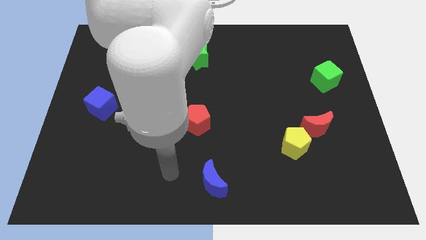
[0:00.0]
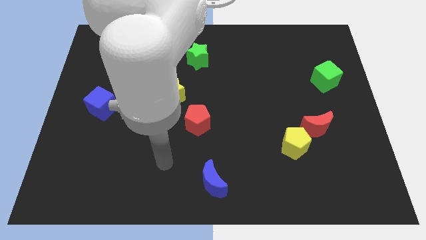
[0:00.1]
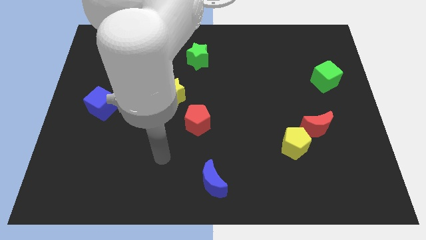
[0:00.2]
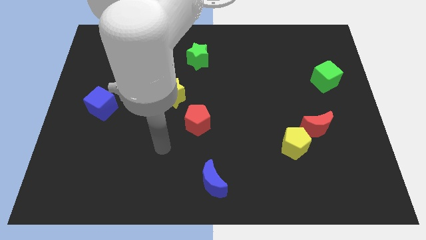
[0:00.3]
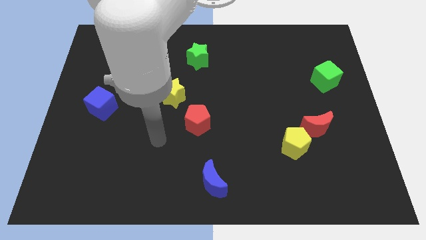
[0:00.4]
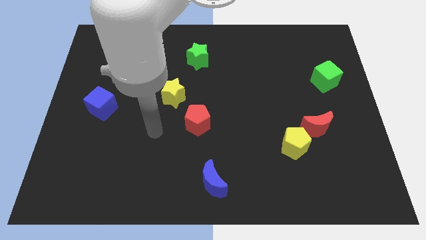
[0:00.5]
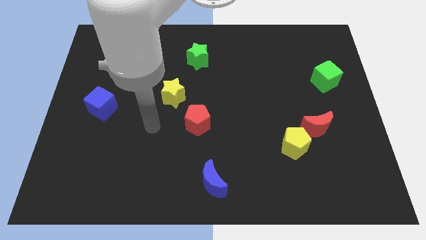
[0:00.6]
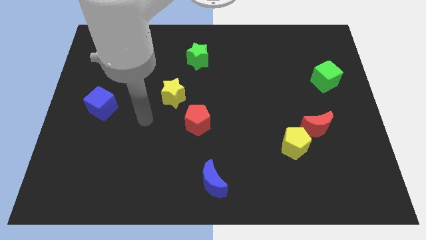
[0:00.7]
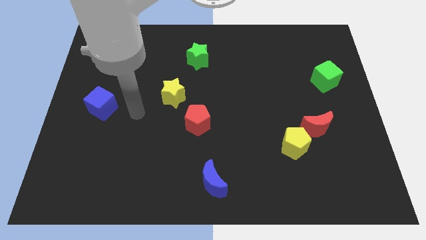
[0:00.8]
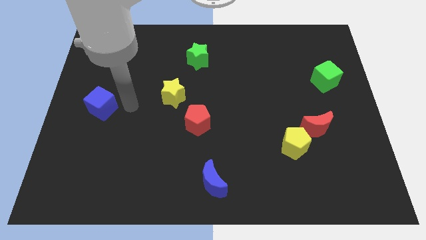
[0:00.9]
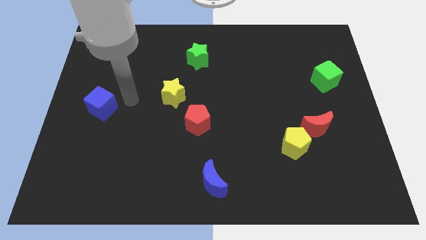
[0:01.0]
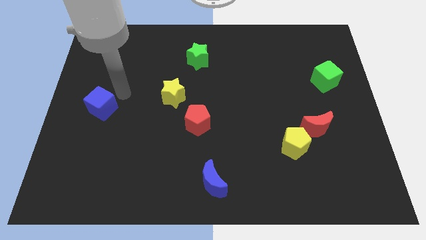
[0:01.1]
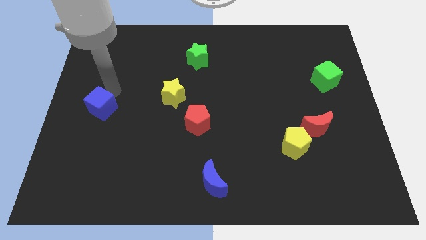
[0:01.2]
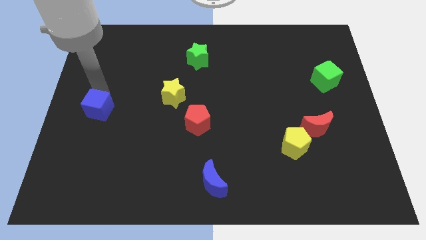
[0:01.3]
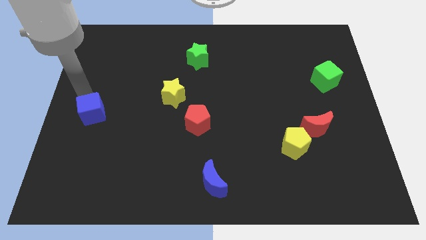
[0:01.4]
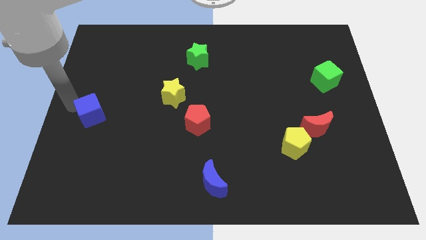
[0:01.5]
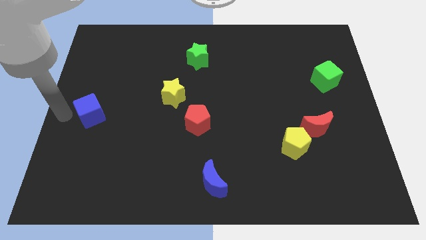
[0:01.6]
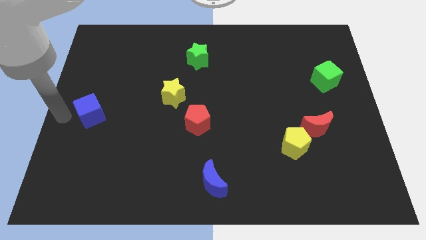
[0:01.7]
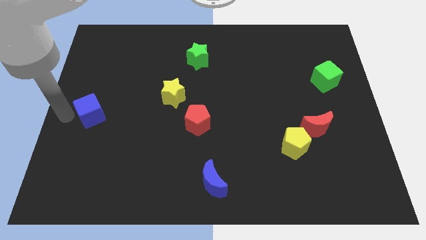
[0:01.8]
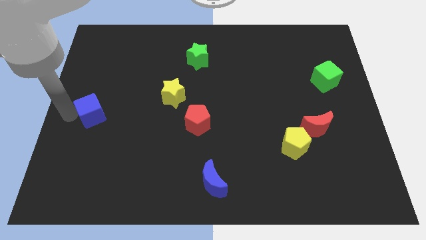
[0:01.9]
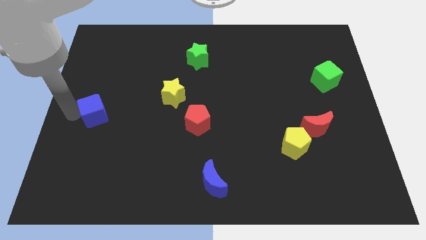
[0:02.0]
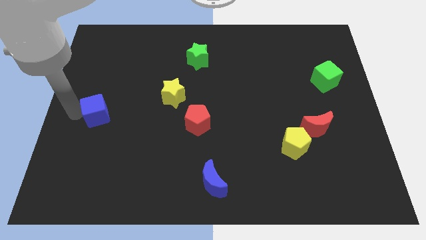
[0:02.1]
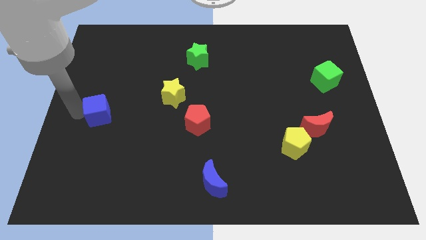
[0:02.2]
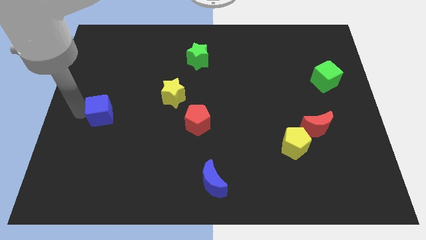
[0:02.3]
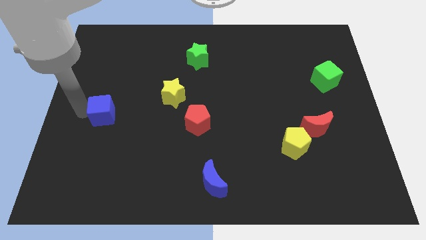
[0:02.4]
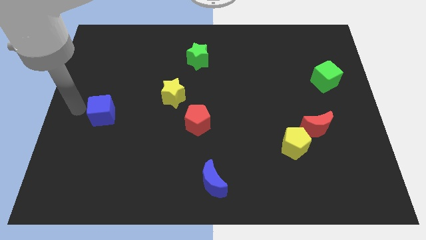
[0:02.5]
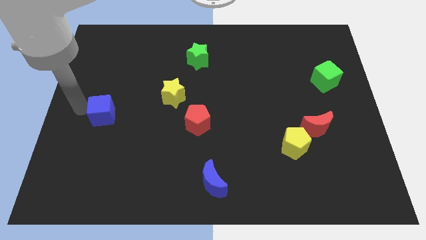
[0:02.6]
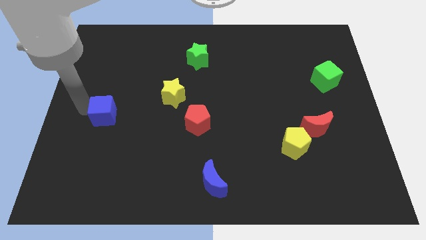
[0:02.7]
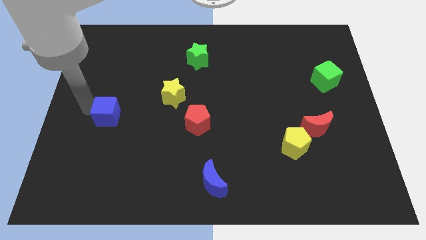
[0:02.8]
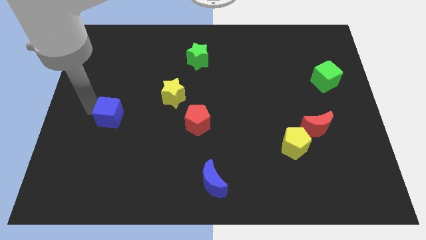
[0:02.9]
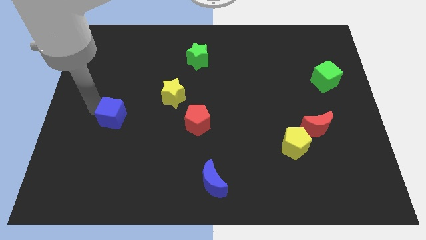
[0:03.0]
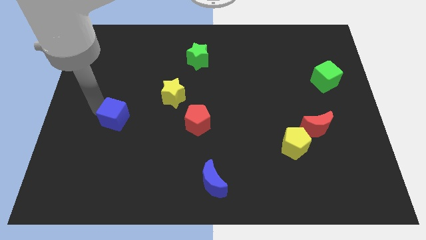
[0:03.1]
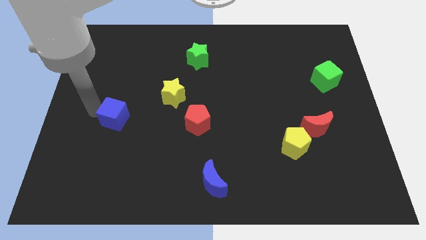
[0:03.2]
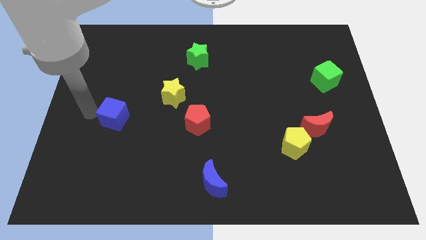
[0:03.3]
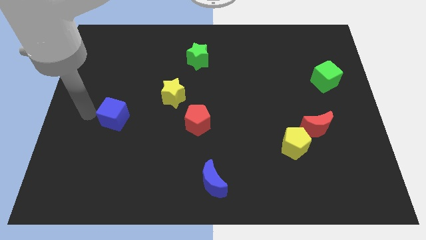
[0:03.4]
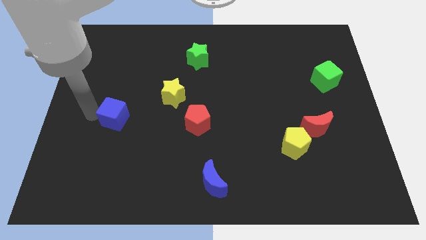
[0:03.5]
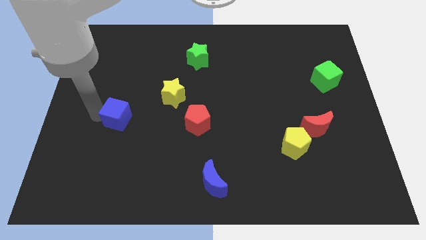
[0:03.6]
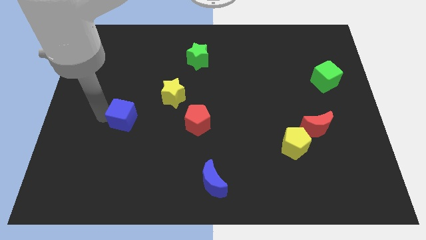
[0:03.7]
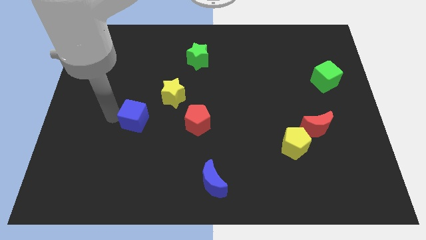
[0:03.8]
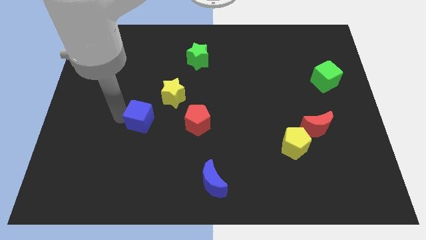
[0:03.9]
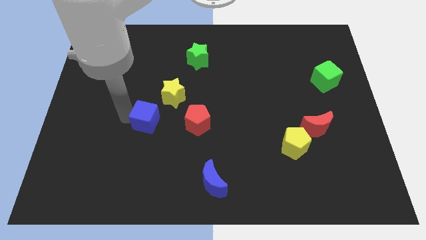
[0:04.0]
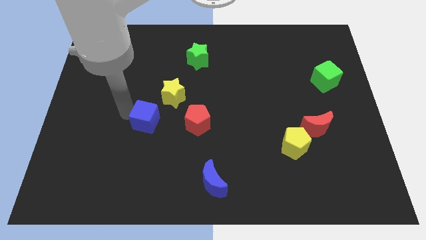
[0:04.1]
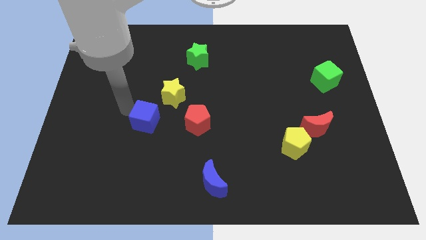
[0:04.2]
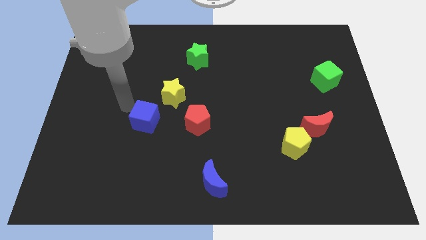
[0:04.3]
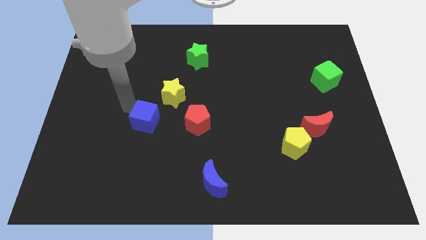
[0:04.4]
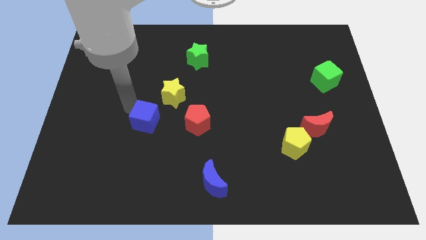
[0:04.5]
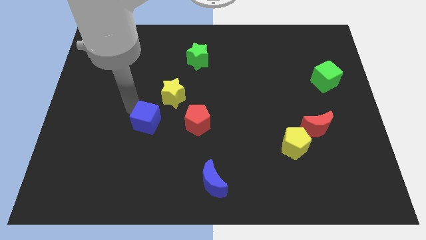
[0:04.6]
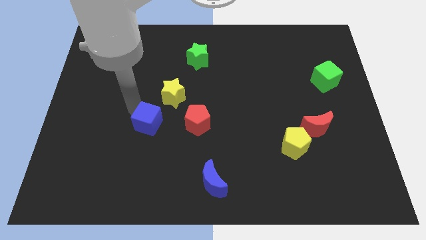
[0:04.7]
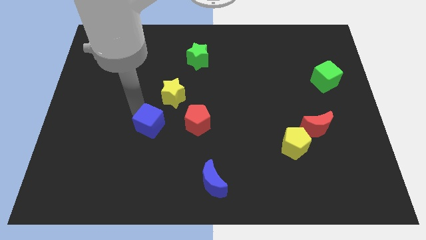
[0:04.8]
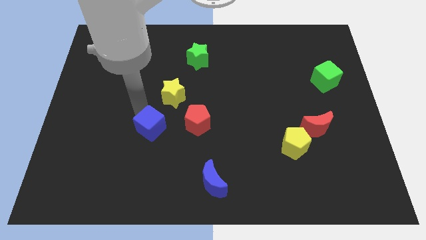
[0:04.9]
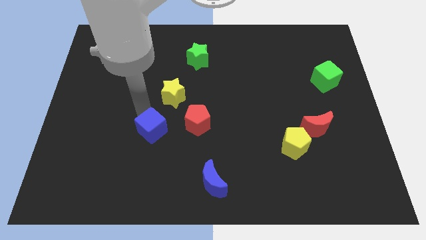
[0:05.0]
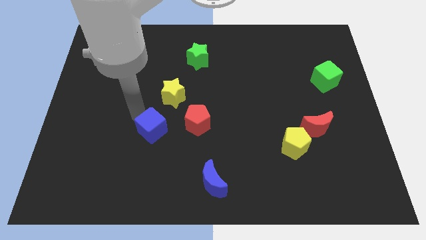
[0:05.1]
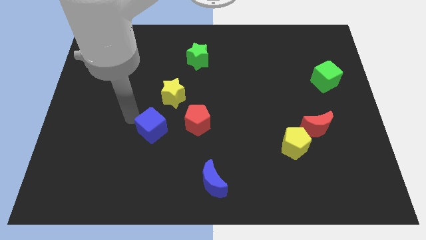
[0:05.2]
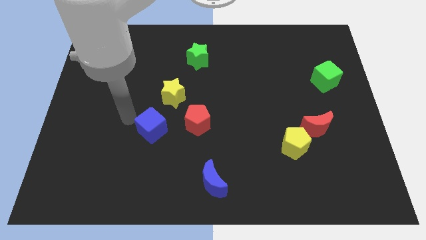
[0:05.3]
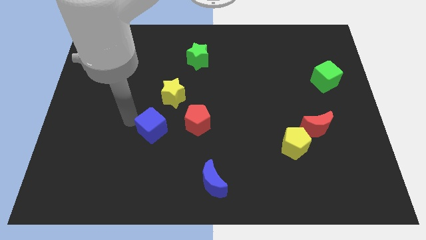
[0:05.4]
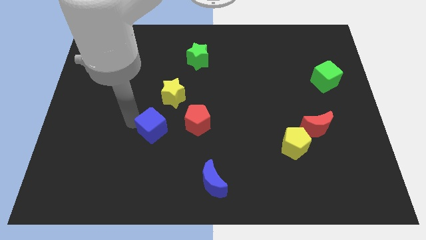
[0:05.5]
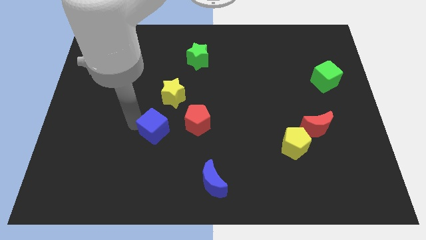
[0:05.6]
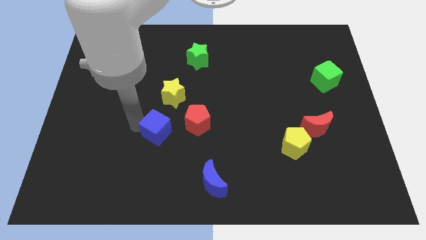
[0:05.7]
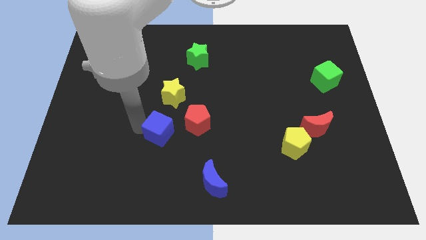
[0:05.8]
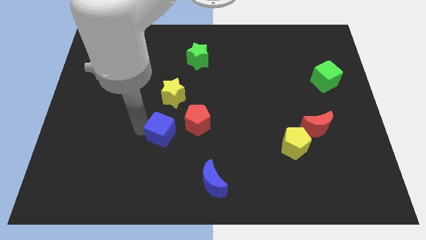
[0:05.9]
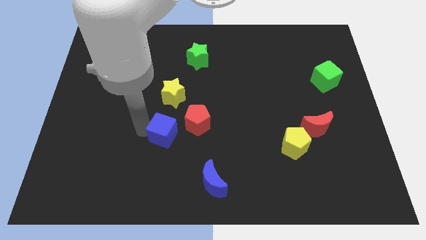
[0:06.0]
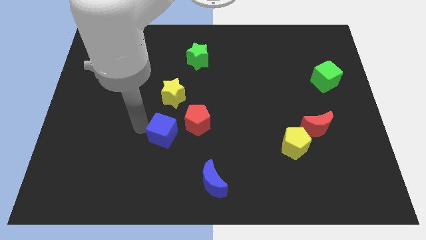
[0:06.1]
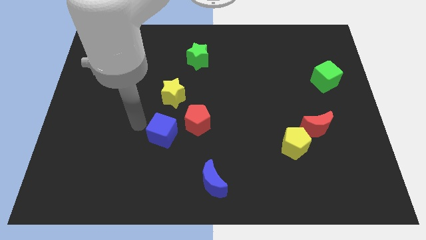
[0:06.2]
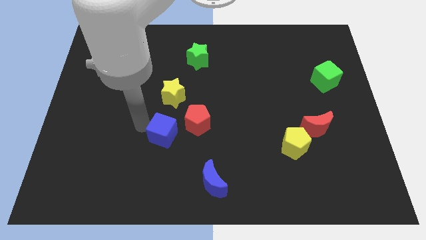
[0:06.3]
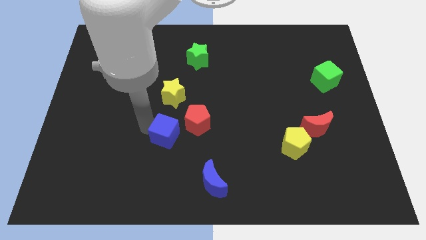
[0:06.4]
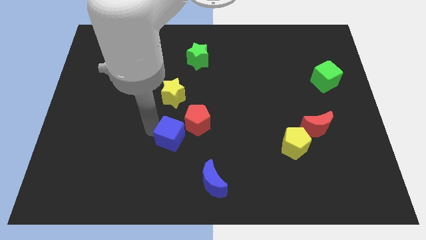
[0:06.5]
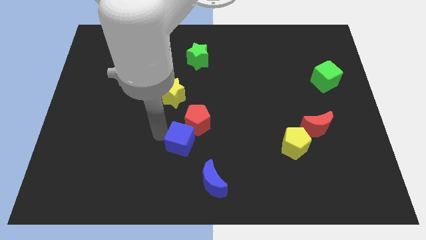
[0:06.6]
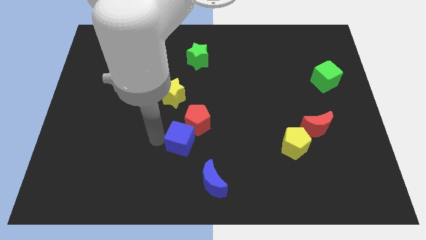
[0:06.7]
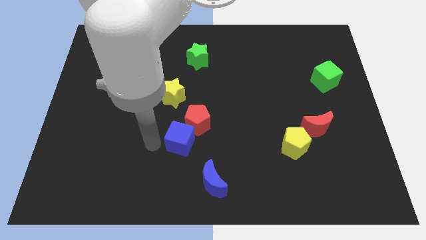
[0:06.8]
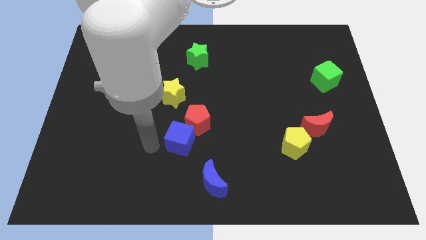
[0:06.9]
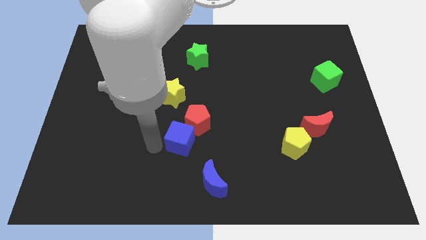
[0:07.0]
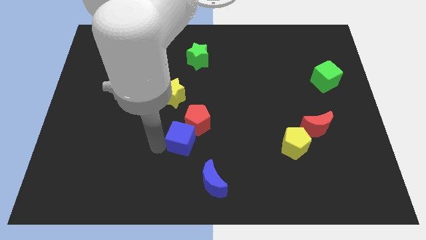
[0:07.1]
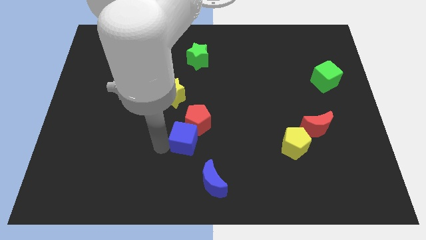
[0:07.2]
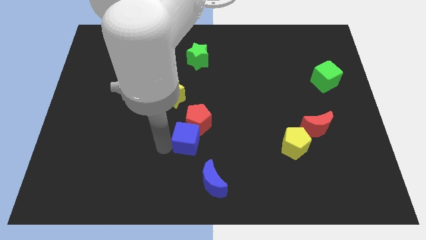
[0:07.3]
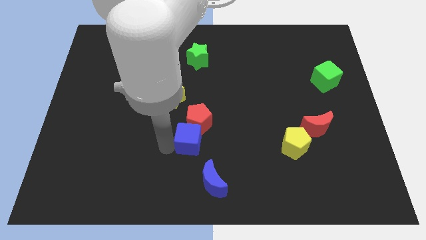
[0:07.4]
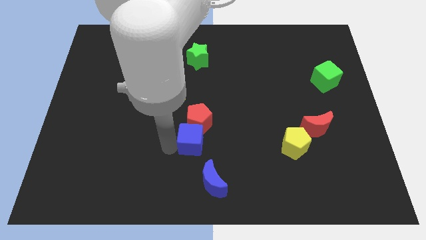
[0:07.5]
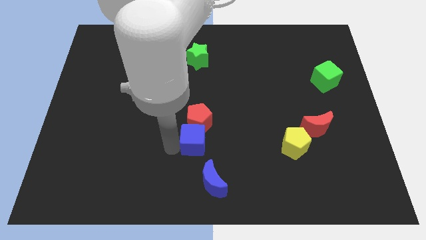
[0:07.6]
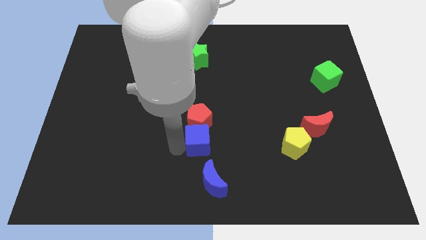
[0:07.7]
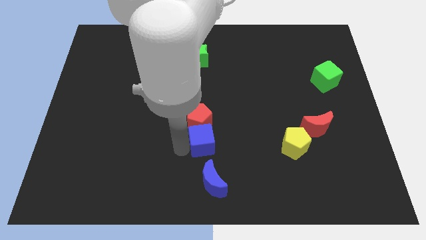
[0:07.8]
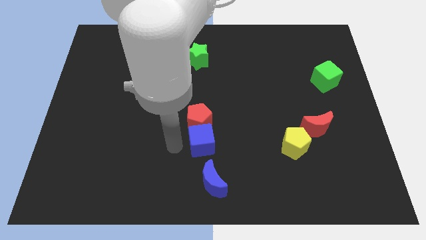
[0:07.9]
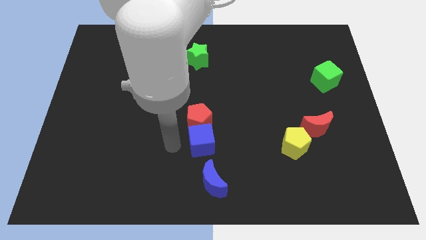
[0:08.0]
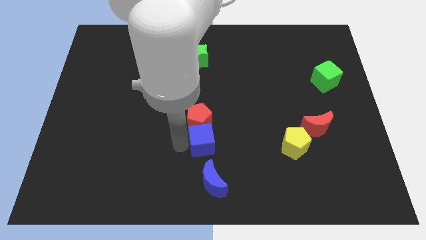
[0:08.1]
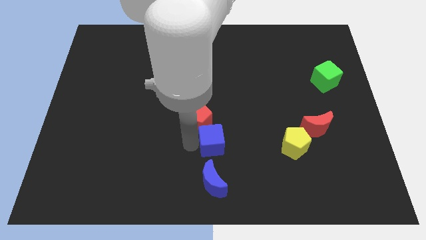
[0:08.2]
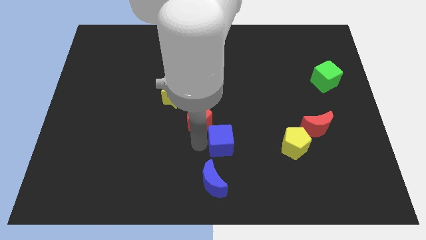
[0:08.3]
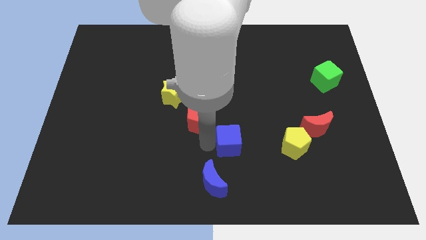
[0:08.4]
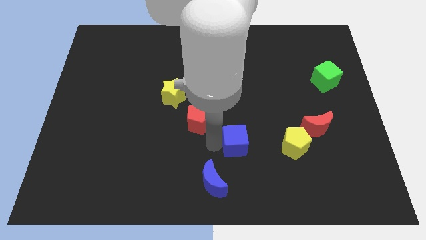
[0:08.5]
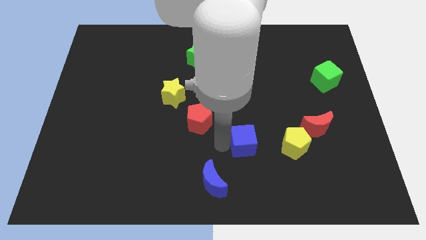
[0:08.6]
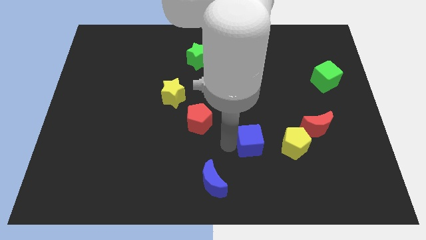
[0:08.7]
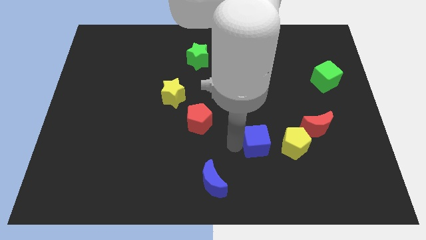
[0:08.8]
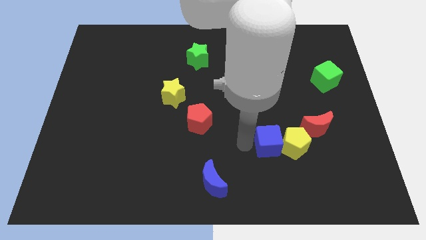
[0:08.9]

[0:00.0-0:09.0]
push the blue cube to the yellow pentagon
